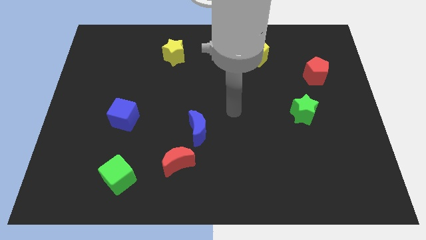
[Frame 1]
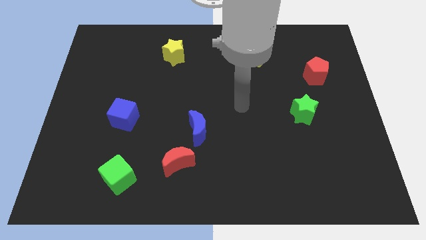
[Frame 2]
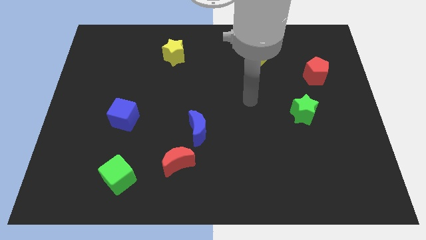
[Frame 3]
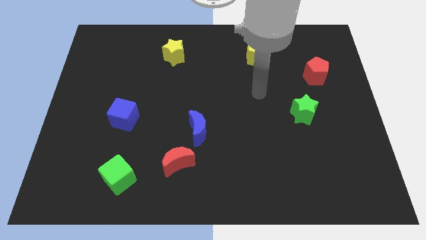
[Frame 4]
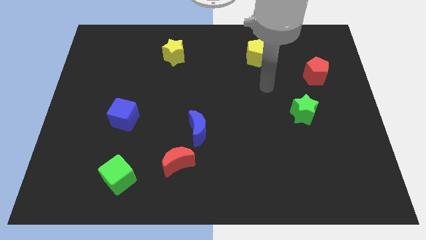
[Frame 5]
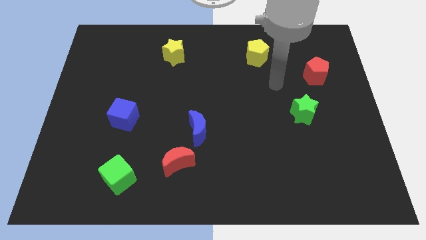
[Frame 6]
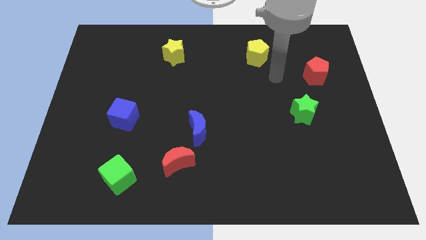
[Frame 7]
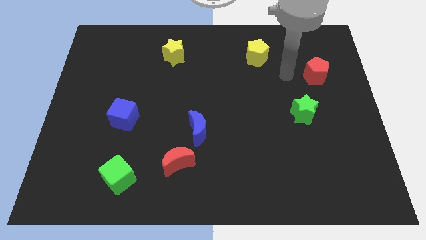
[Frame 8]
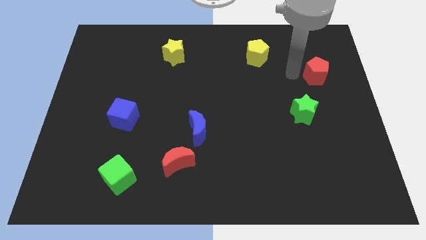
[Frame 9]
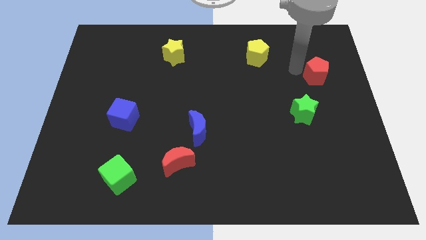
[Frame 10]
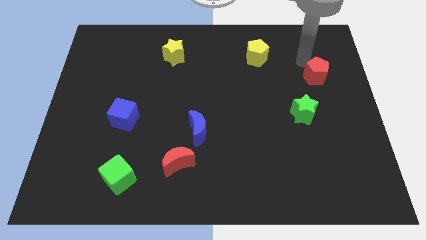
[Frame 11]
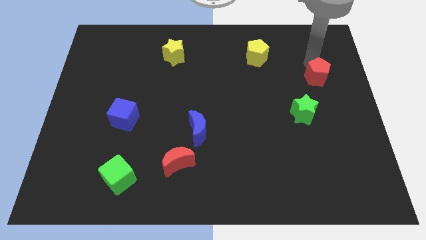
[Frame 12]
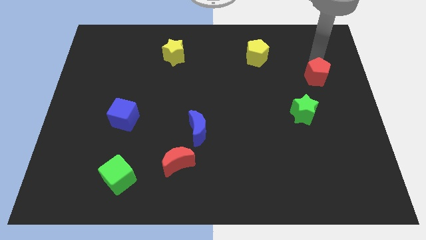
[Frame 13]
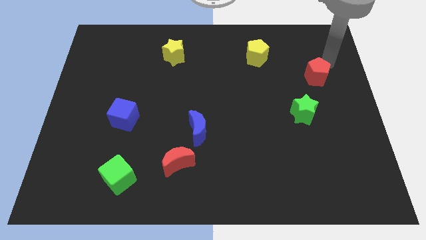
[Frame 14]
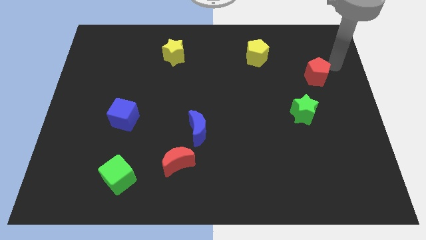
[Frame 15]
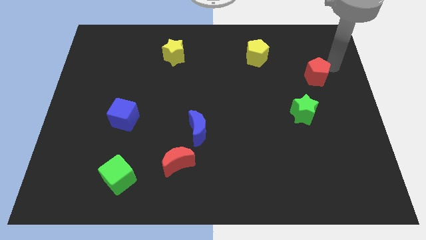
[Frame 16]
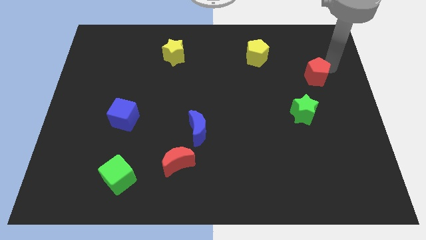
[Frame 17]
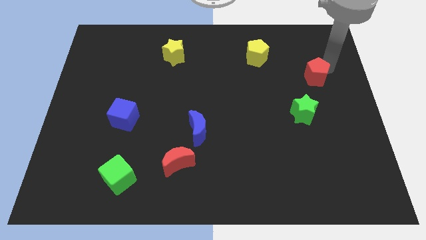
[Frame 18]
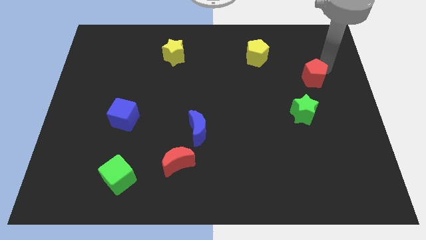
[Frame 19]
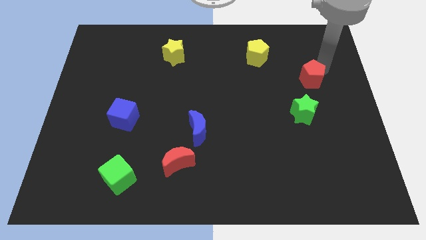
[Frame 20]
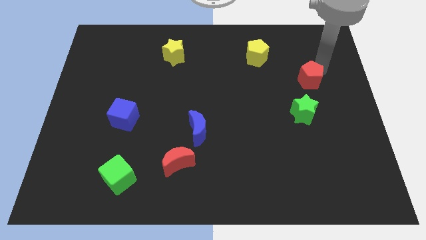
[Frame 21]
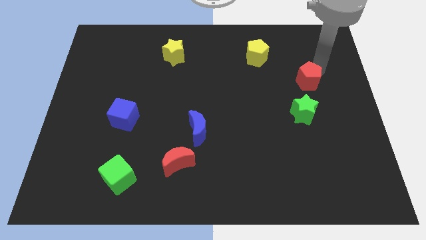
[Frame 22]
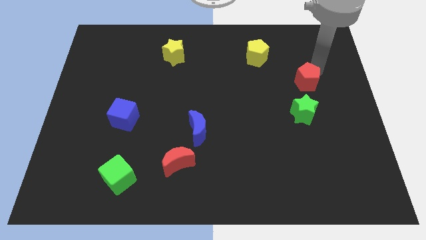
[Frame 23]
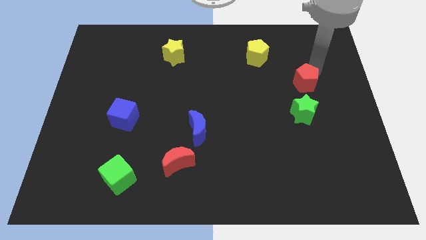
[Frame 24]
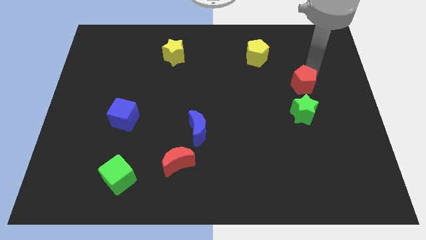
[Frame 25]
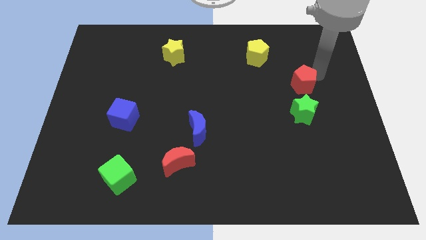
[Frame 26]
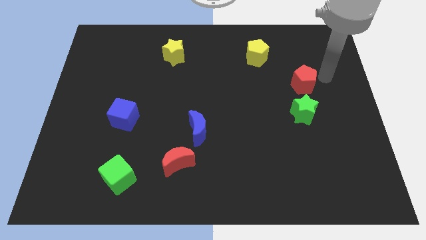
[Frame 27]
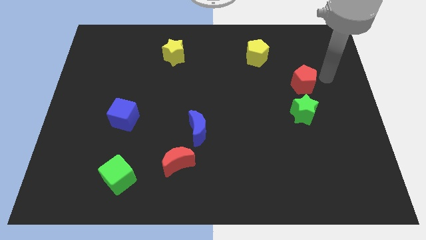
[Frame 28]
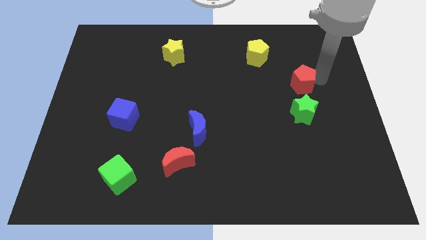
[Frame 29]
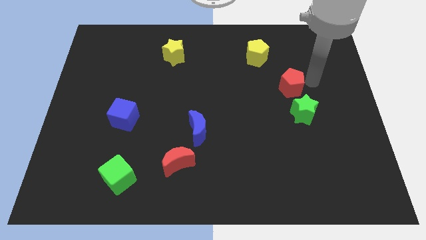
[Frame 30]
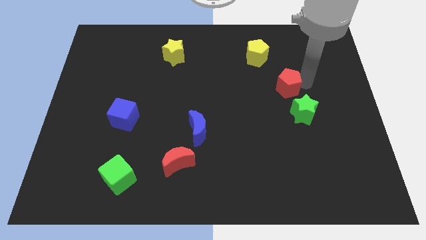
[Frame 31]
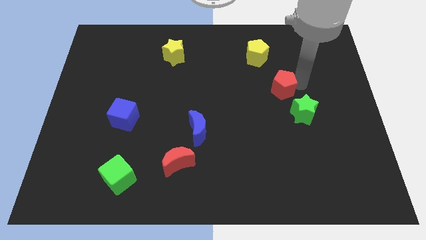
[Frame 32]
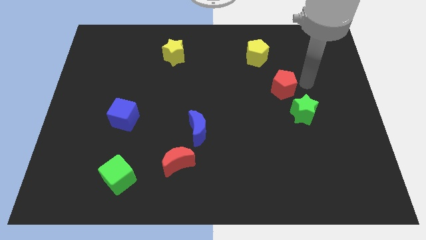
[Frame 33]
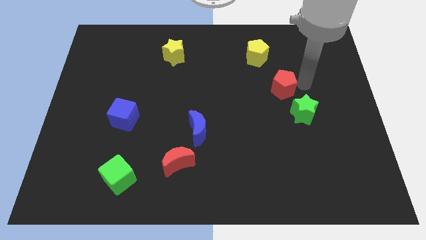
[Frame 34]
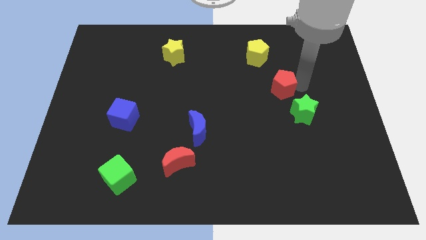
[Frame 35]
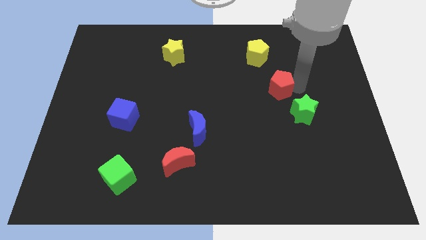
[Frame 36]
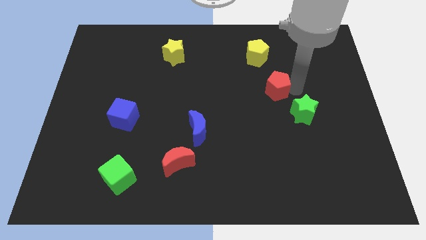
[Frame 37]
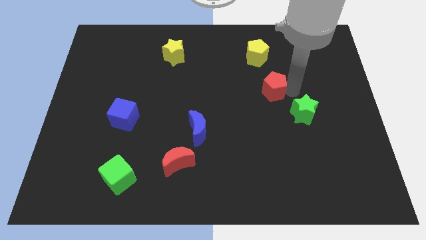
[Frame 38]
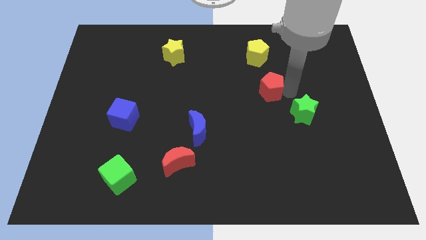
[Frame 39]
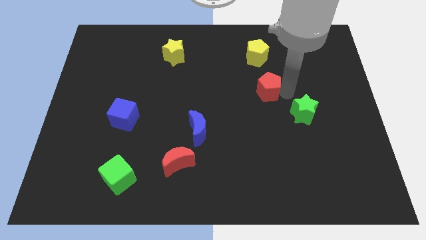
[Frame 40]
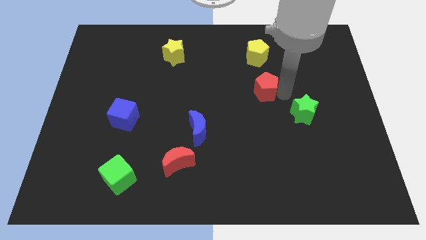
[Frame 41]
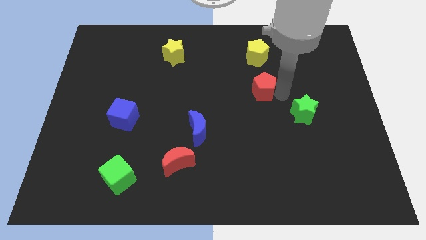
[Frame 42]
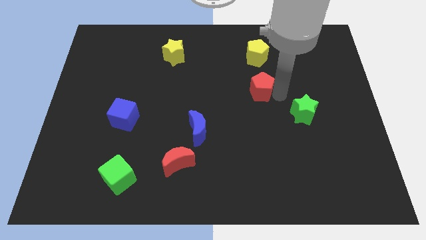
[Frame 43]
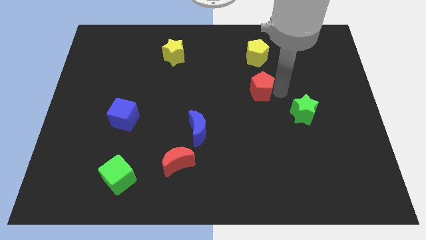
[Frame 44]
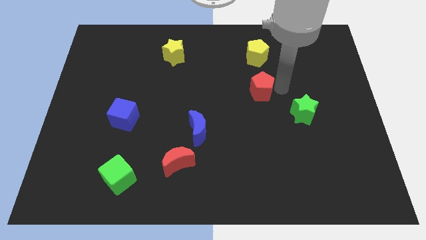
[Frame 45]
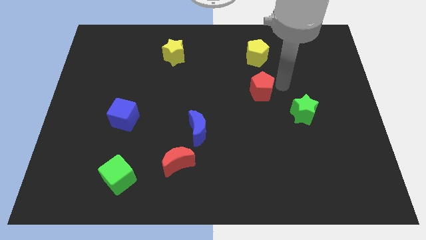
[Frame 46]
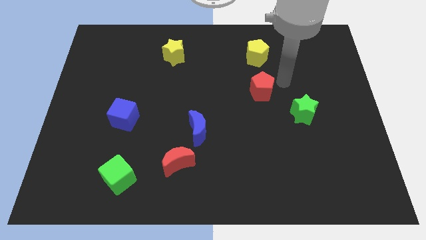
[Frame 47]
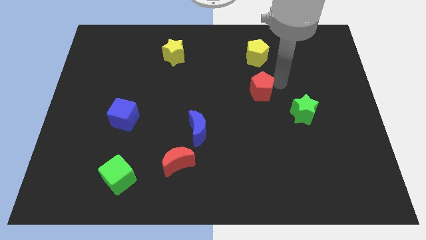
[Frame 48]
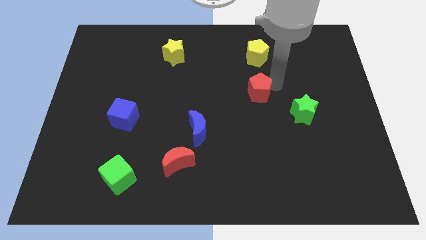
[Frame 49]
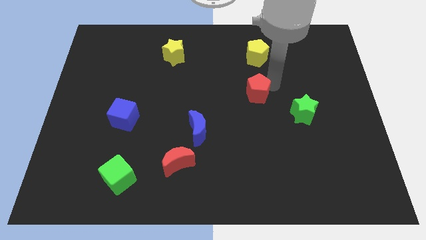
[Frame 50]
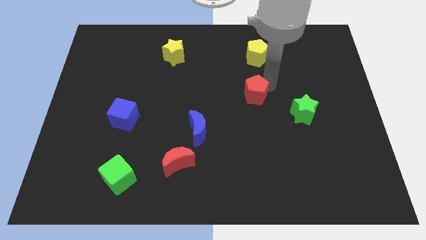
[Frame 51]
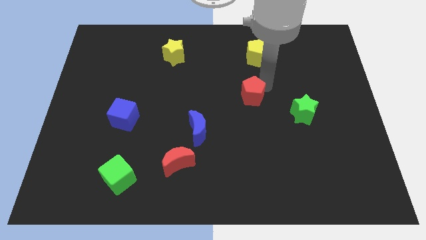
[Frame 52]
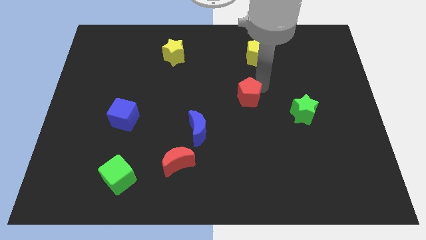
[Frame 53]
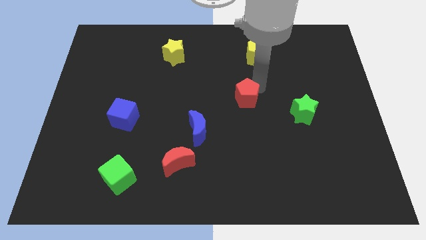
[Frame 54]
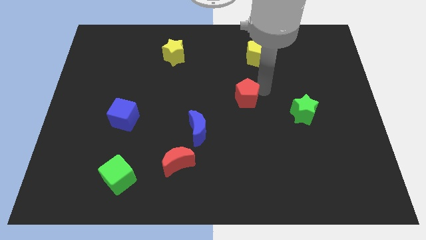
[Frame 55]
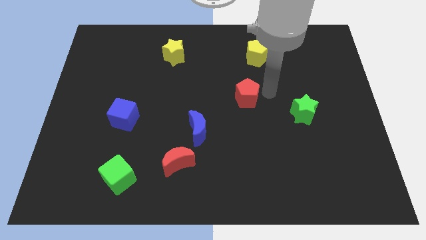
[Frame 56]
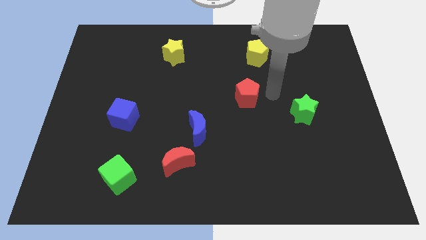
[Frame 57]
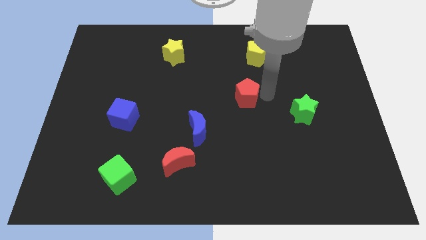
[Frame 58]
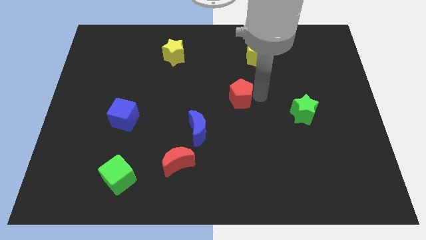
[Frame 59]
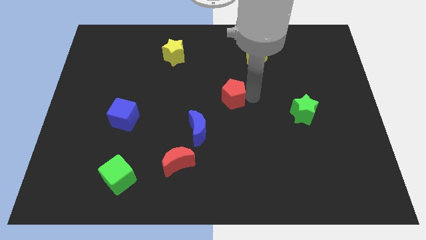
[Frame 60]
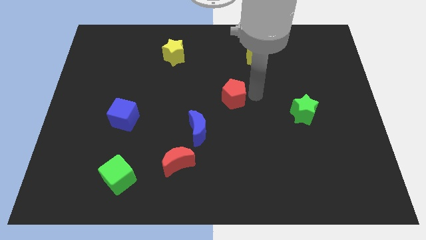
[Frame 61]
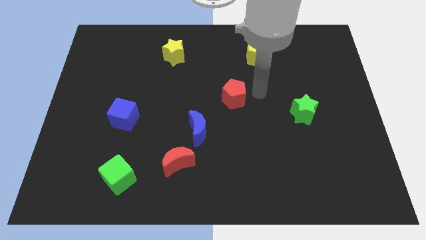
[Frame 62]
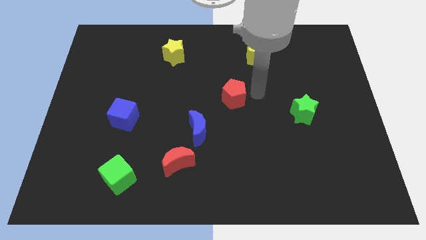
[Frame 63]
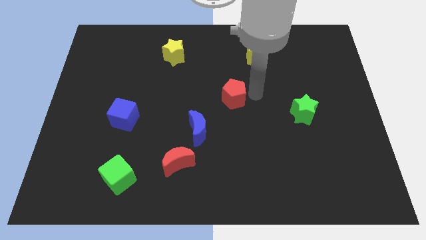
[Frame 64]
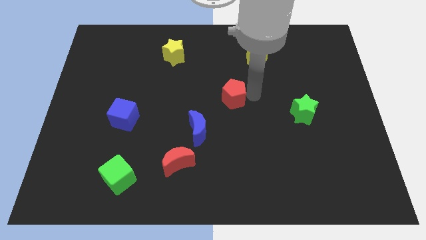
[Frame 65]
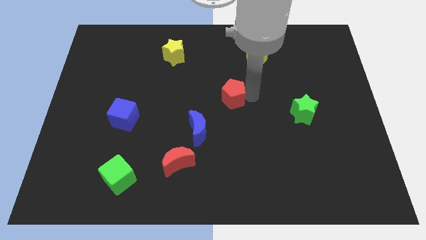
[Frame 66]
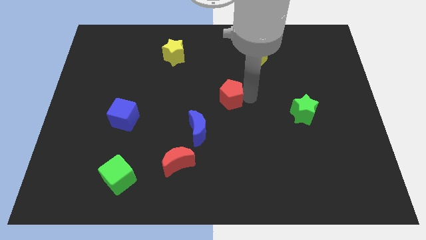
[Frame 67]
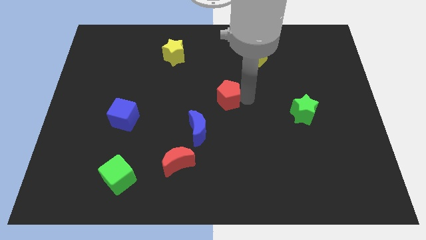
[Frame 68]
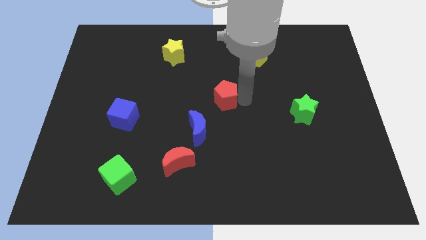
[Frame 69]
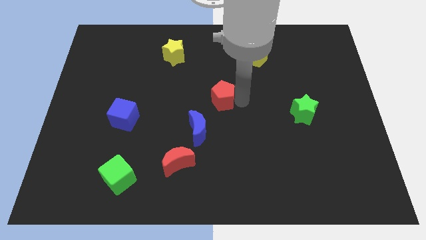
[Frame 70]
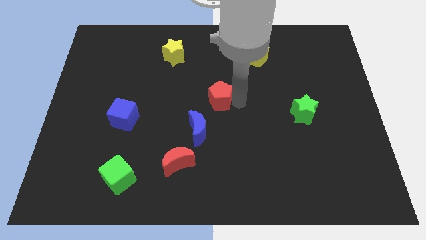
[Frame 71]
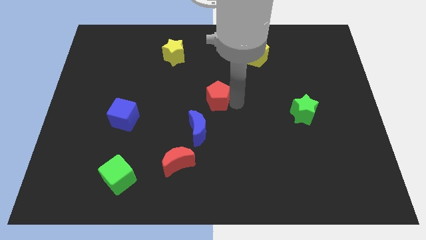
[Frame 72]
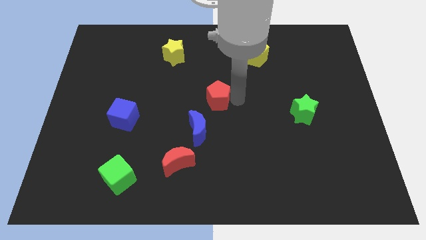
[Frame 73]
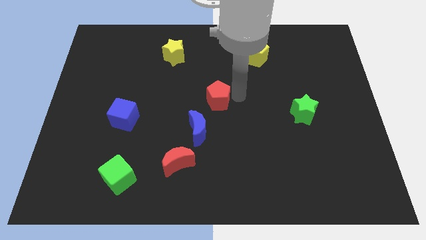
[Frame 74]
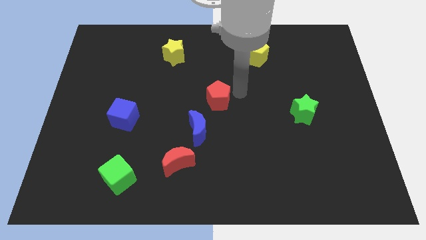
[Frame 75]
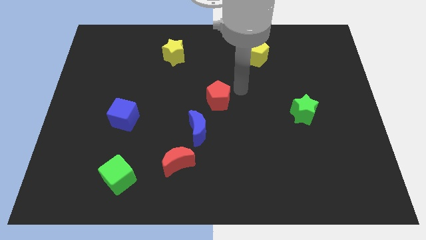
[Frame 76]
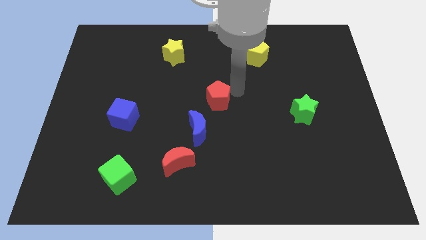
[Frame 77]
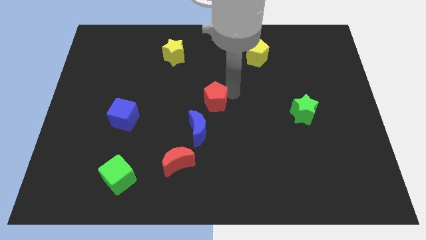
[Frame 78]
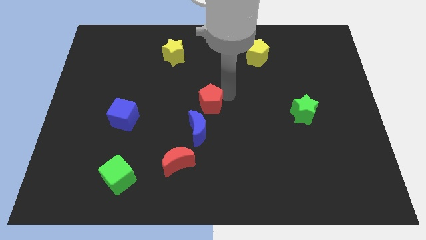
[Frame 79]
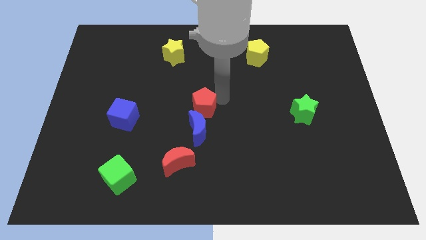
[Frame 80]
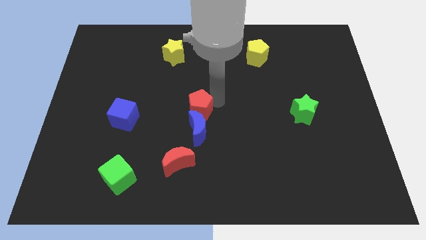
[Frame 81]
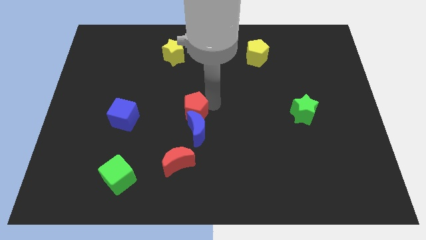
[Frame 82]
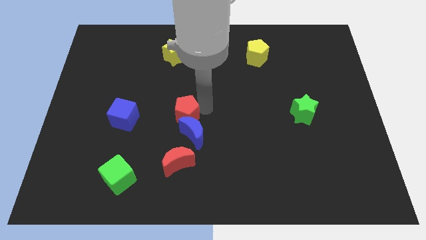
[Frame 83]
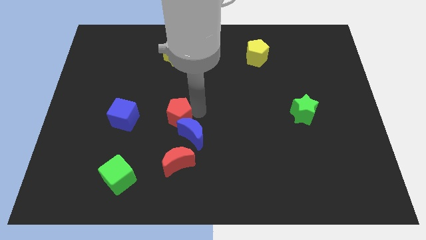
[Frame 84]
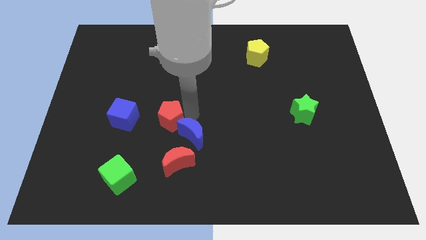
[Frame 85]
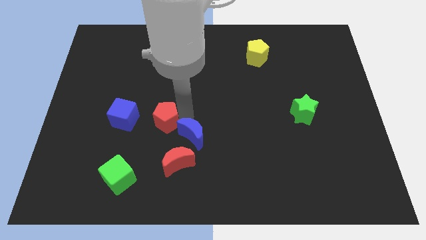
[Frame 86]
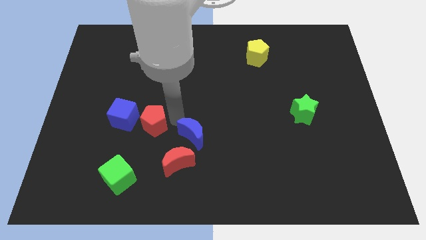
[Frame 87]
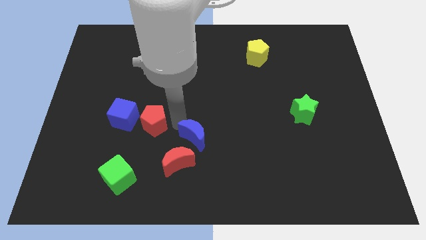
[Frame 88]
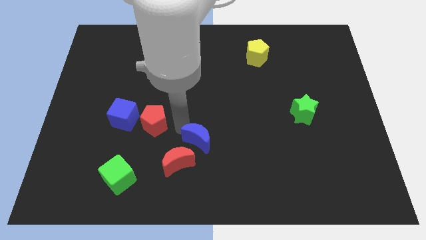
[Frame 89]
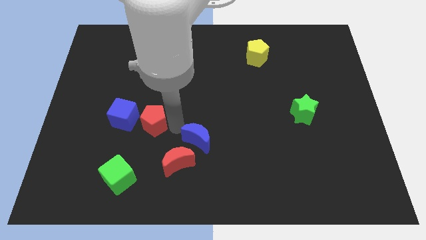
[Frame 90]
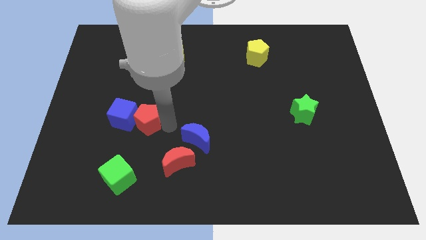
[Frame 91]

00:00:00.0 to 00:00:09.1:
move the red pentagon to the blue cube
